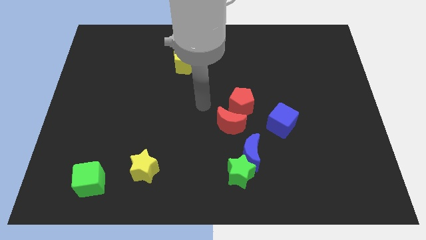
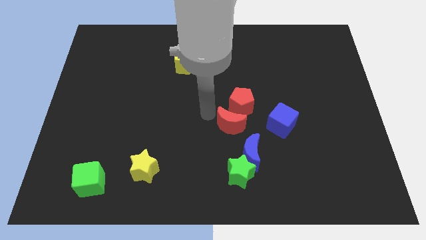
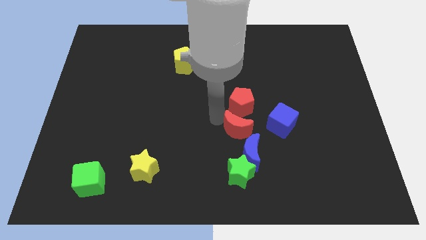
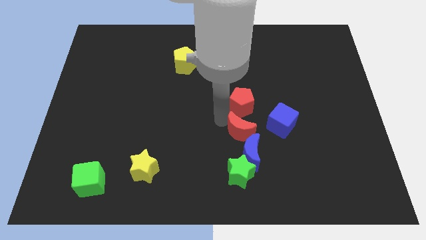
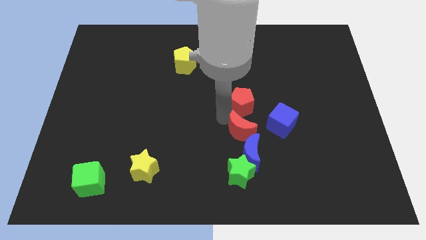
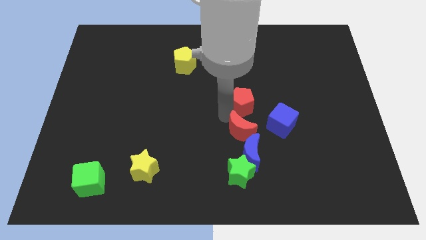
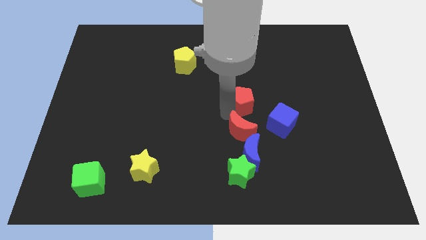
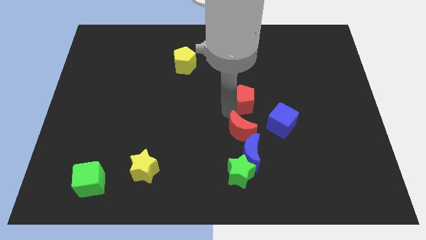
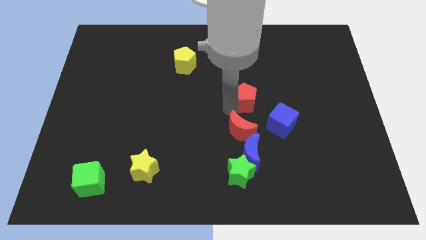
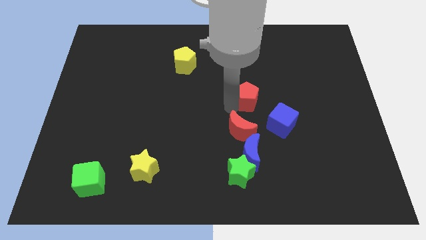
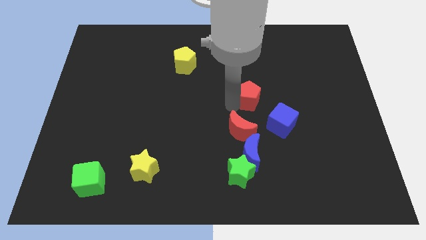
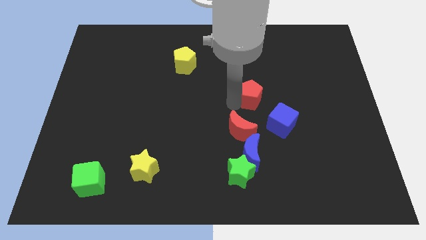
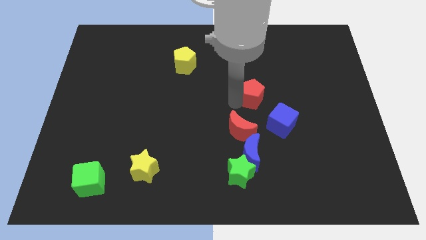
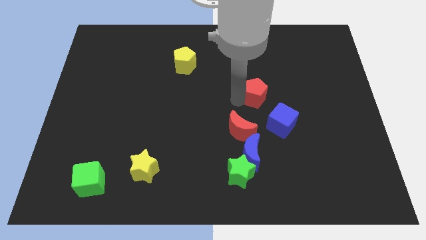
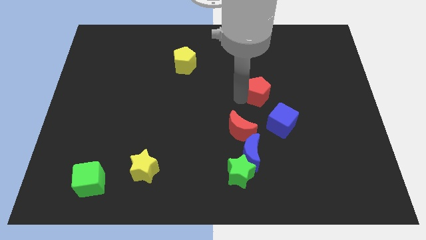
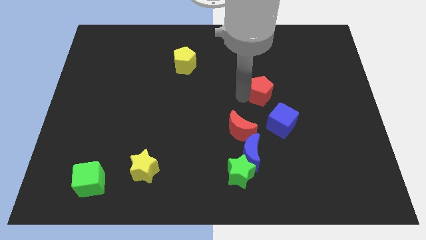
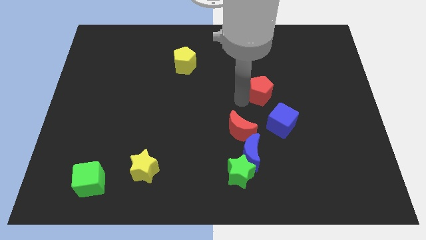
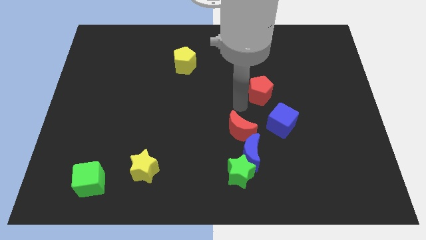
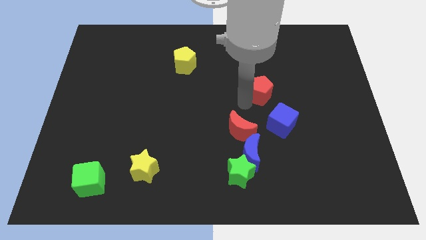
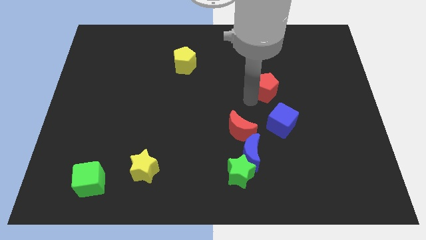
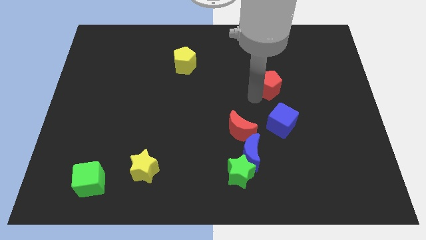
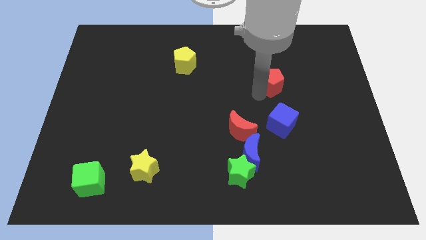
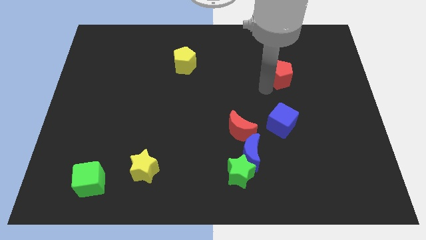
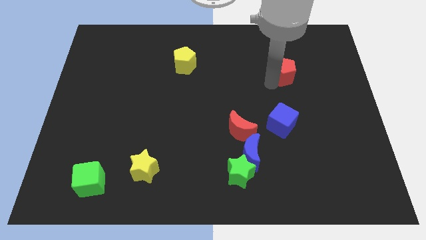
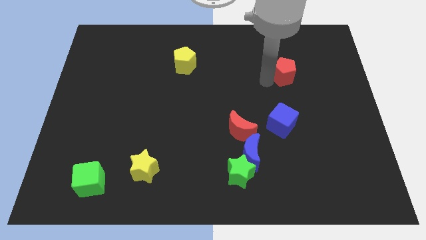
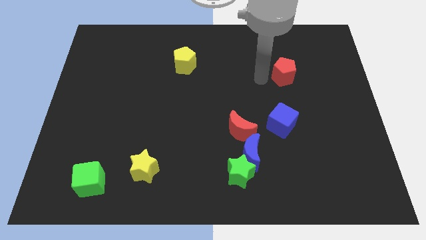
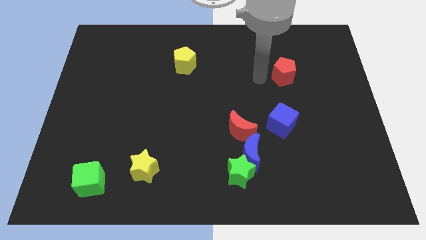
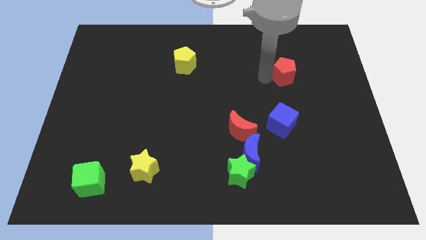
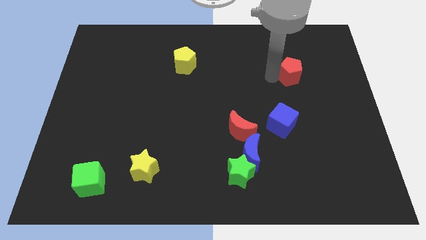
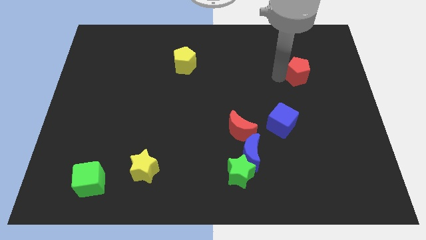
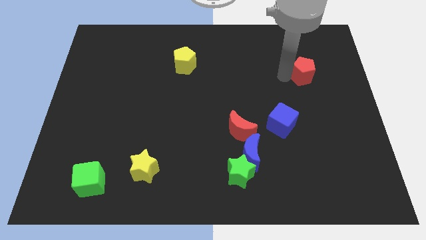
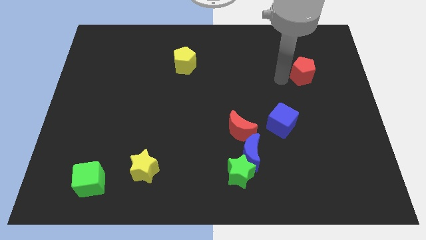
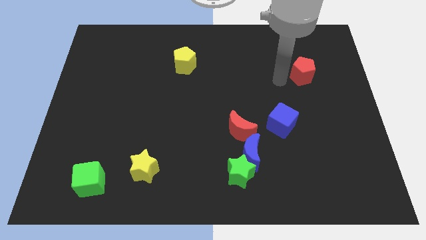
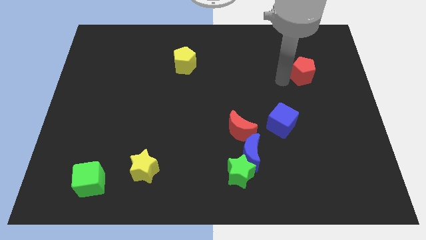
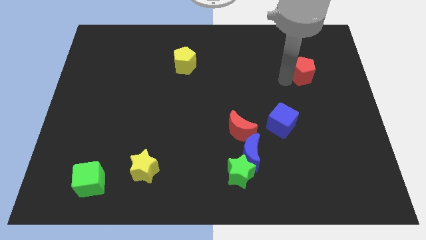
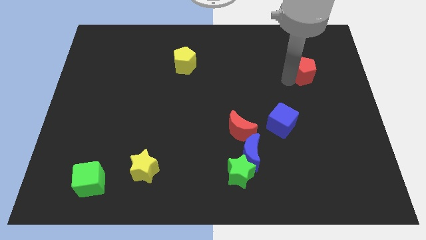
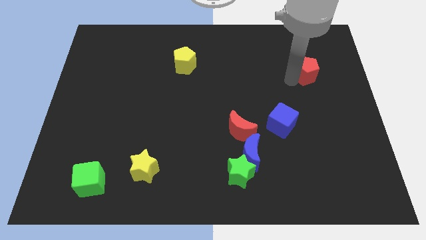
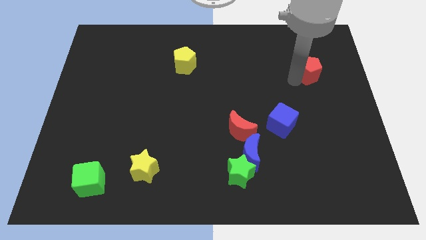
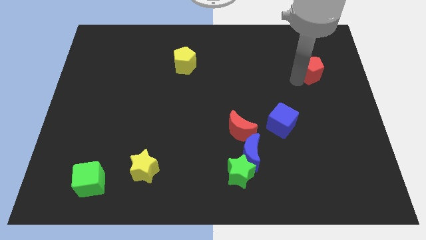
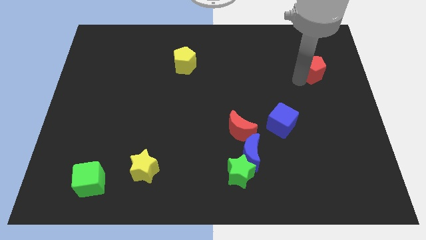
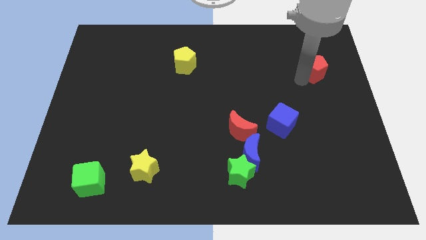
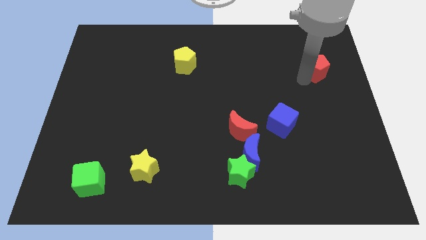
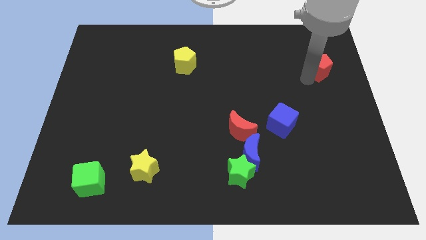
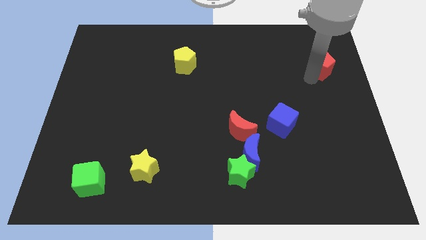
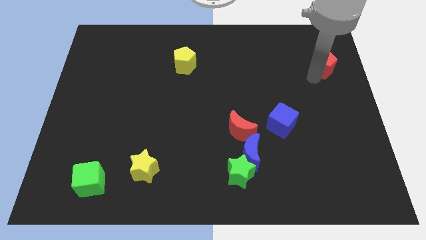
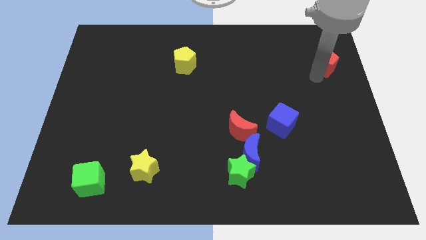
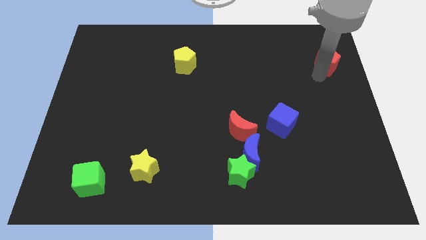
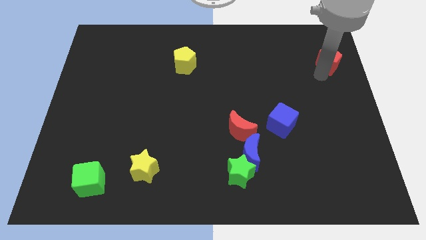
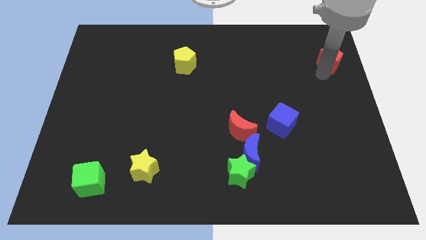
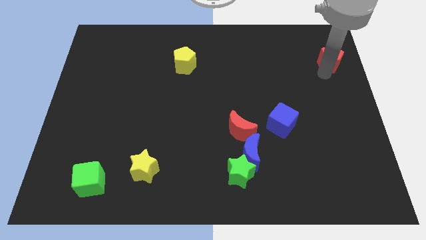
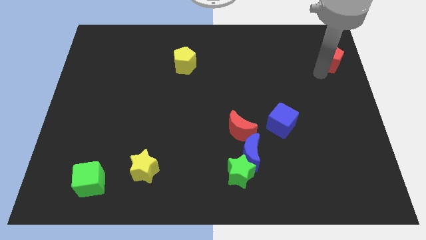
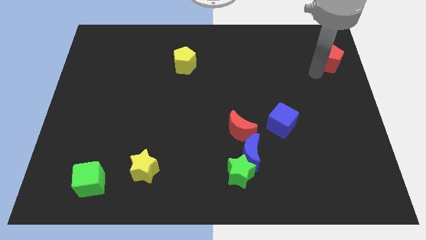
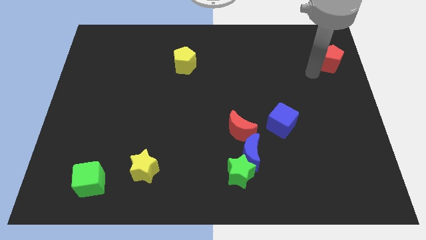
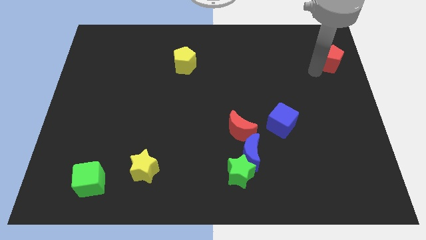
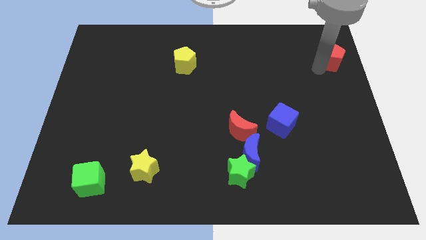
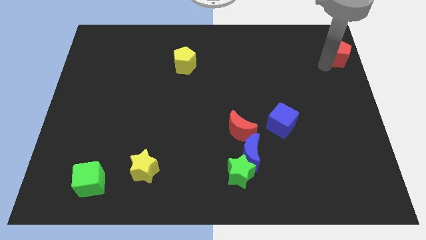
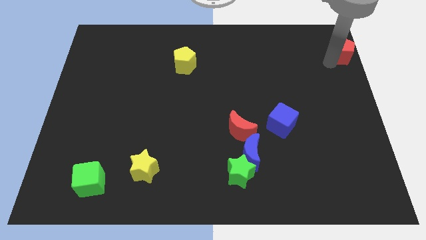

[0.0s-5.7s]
push the red pentagon to the top right
